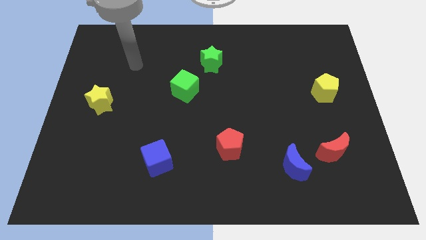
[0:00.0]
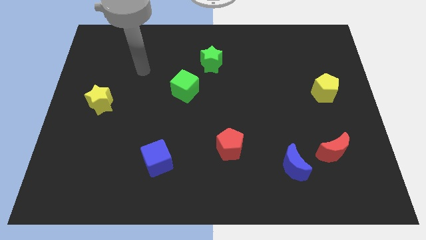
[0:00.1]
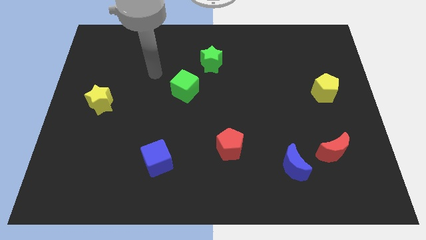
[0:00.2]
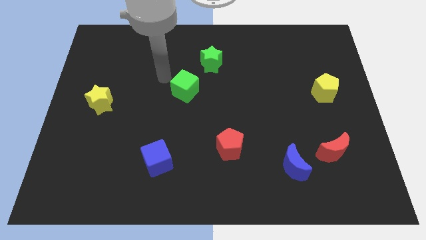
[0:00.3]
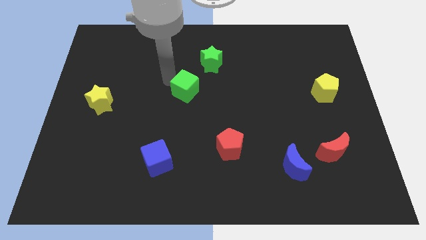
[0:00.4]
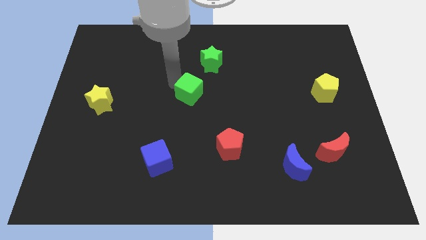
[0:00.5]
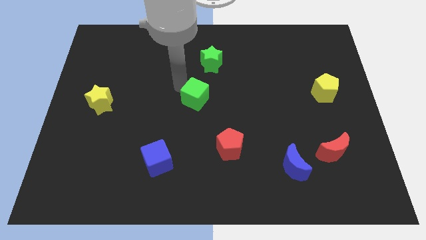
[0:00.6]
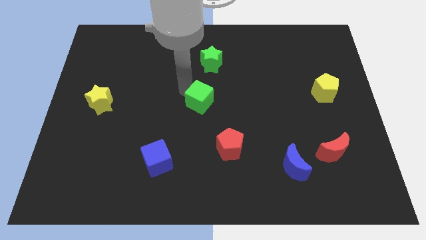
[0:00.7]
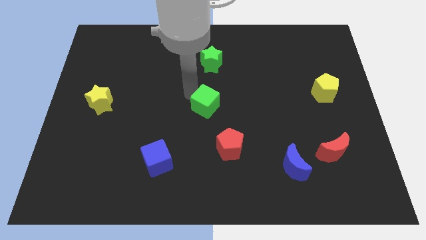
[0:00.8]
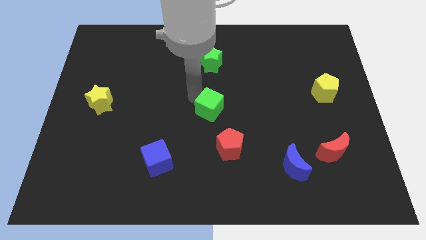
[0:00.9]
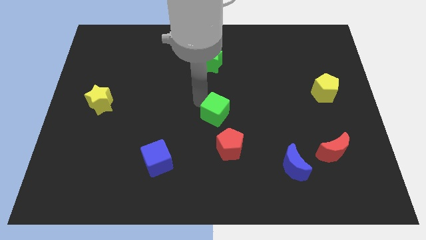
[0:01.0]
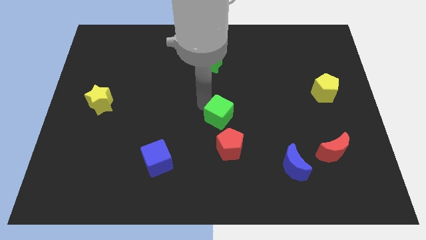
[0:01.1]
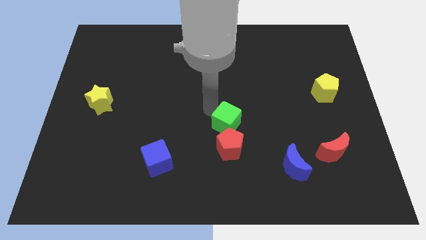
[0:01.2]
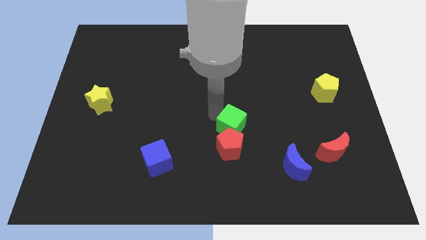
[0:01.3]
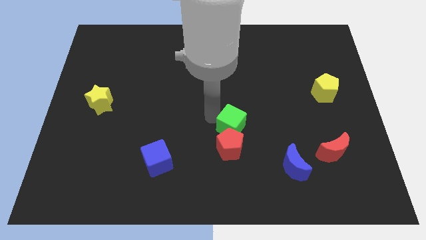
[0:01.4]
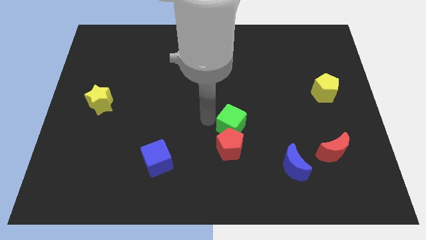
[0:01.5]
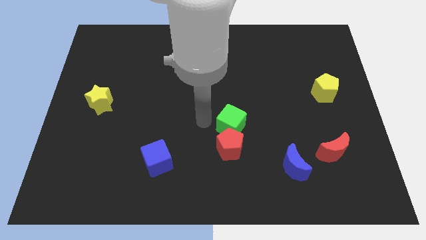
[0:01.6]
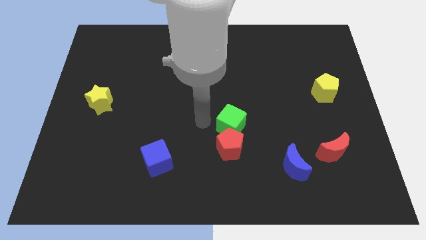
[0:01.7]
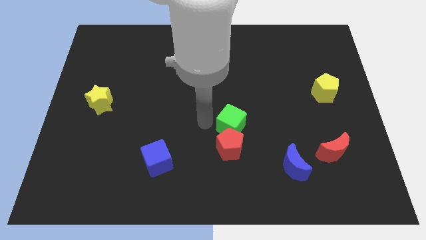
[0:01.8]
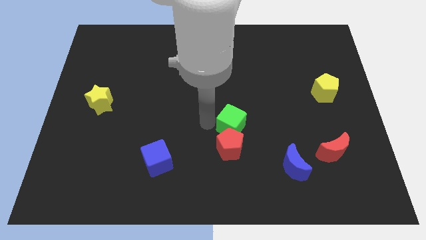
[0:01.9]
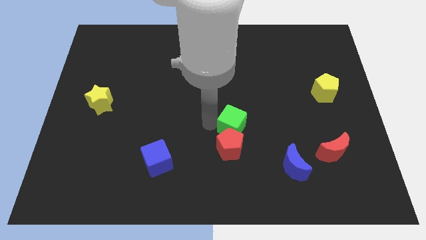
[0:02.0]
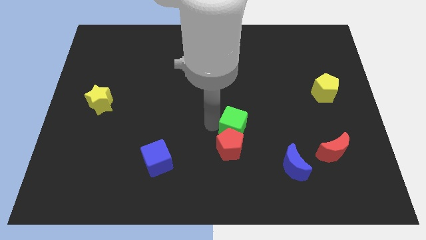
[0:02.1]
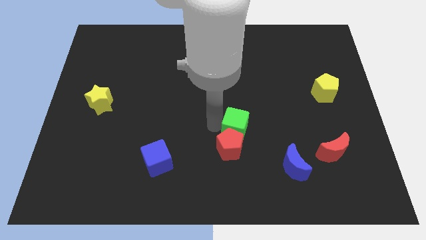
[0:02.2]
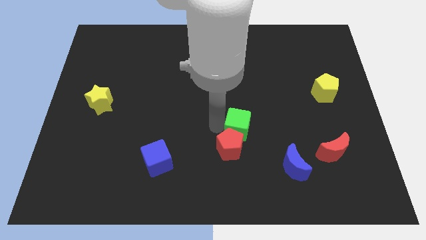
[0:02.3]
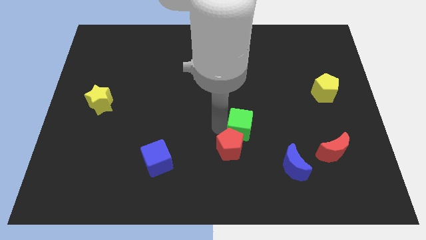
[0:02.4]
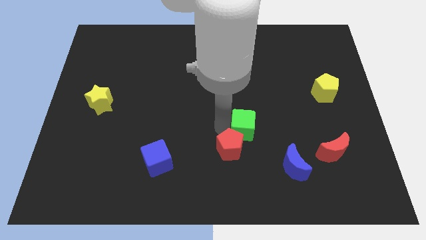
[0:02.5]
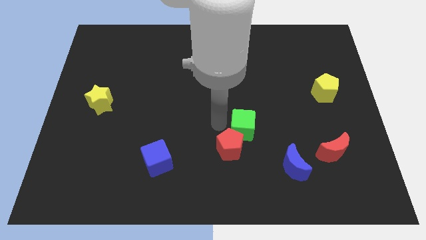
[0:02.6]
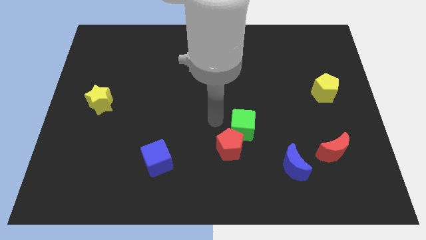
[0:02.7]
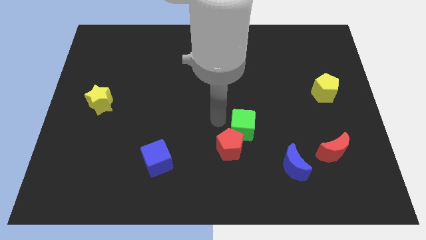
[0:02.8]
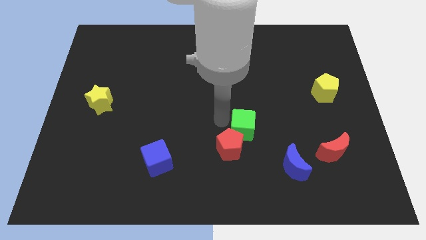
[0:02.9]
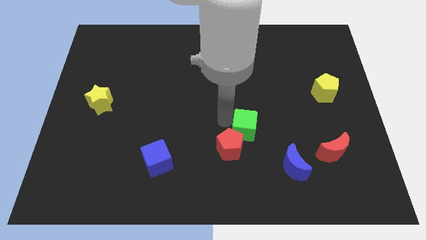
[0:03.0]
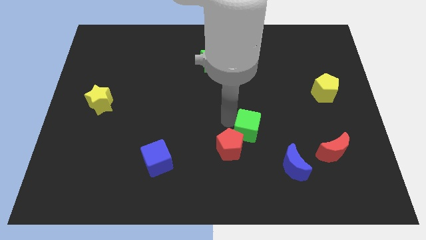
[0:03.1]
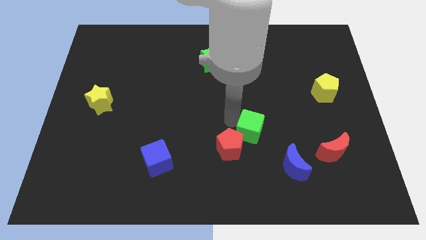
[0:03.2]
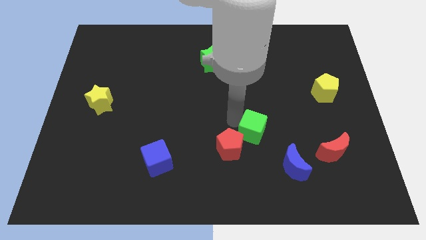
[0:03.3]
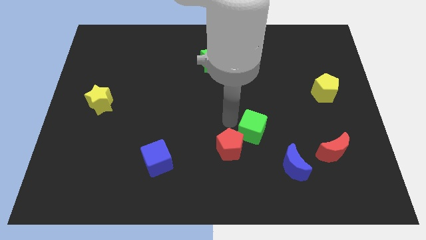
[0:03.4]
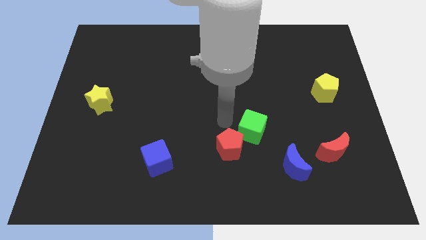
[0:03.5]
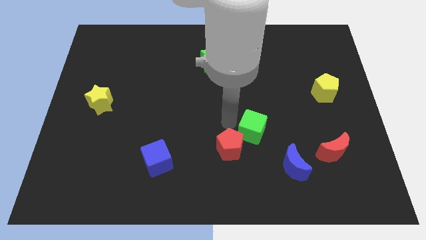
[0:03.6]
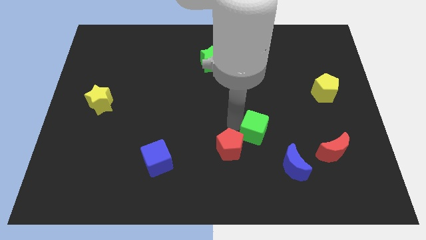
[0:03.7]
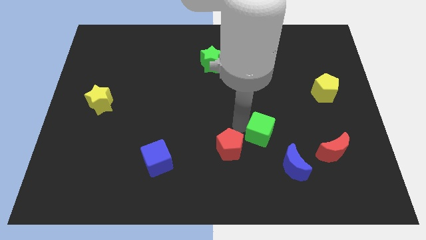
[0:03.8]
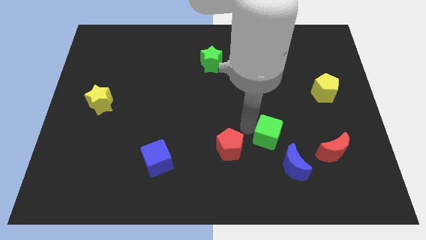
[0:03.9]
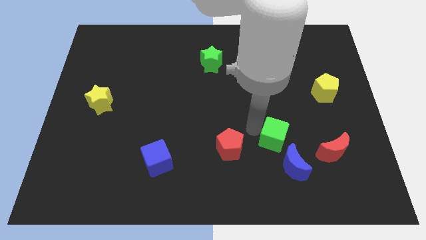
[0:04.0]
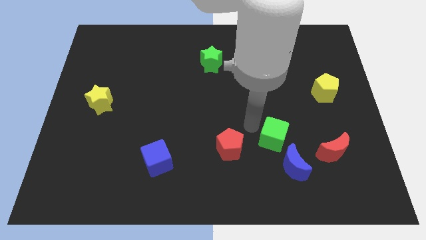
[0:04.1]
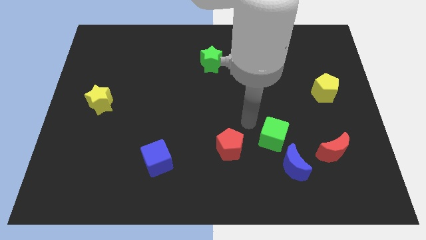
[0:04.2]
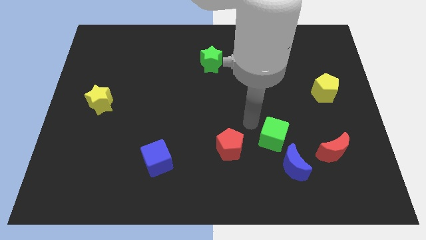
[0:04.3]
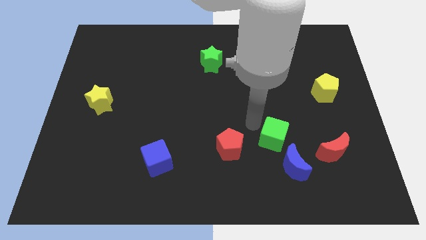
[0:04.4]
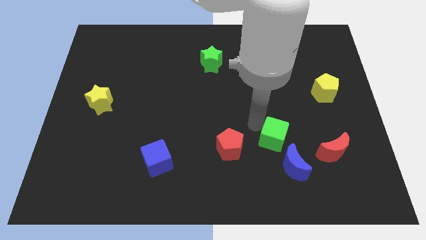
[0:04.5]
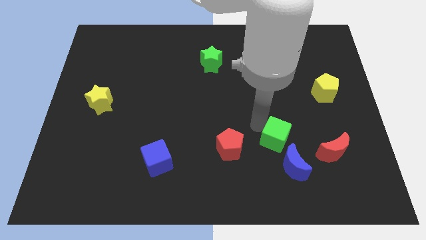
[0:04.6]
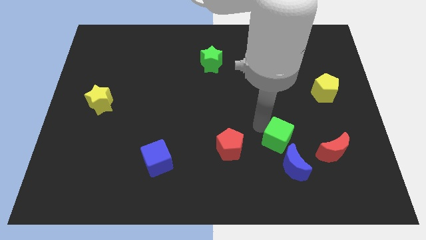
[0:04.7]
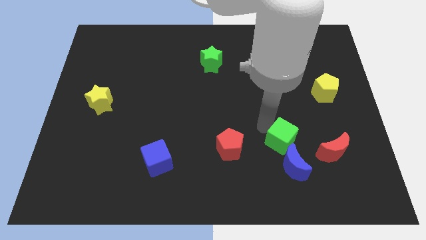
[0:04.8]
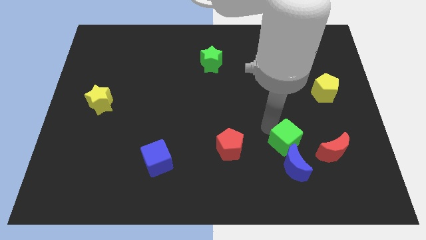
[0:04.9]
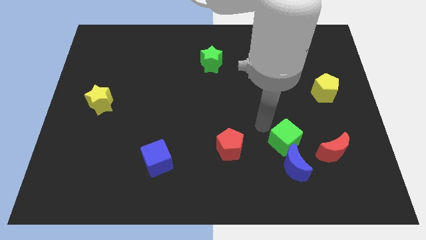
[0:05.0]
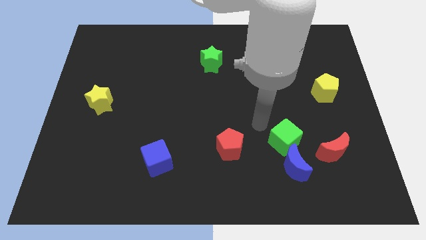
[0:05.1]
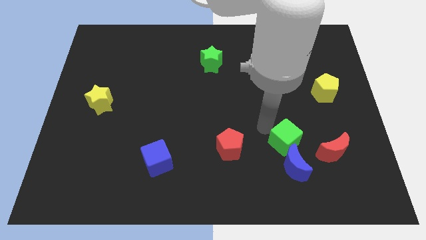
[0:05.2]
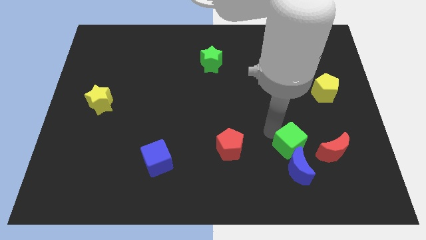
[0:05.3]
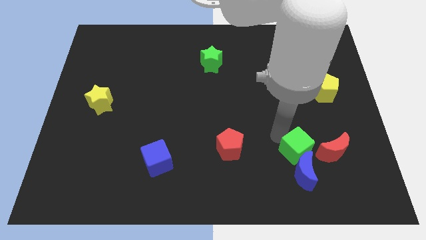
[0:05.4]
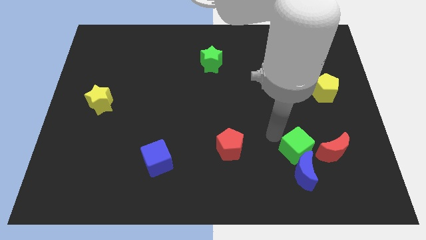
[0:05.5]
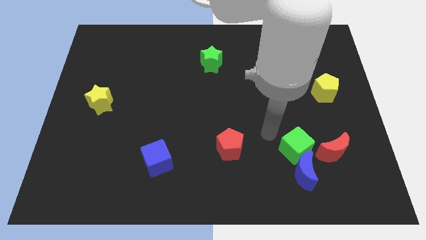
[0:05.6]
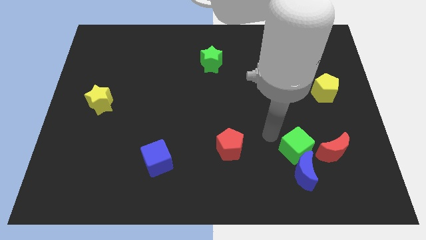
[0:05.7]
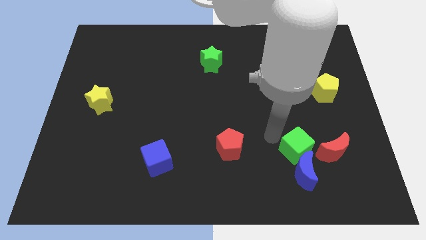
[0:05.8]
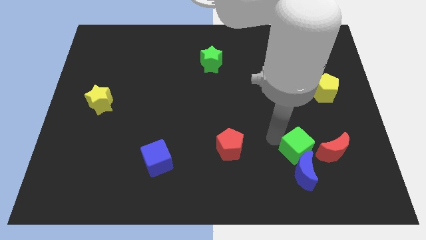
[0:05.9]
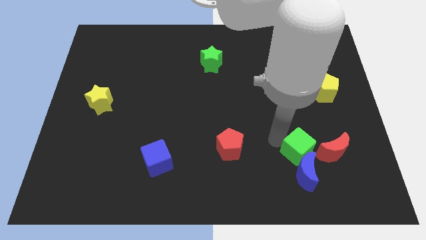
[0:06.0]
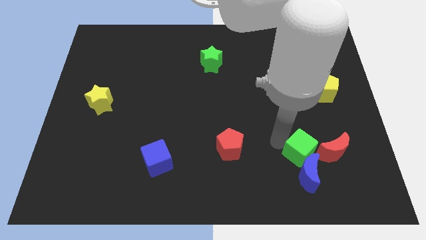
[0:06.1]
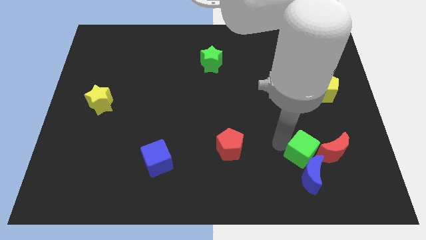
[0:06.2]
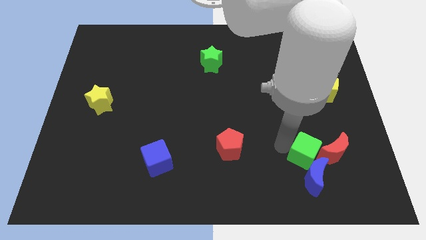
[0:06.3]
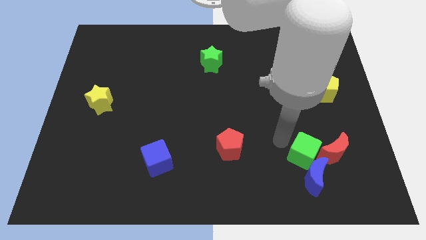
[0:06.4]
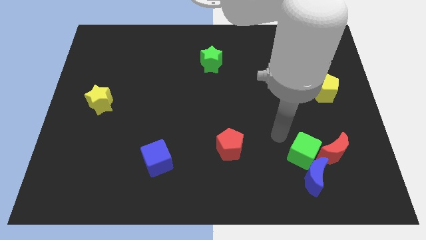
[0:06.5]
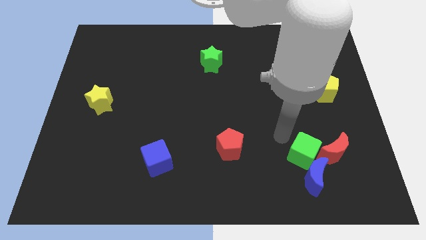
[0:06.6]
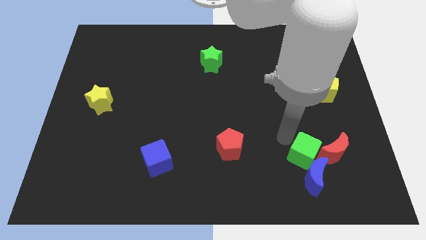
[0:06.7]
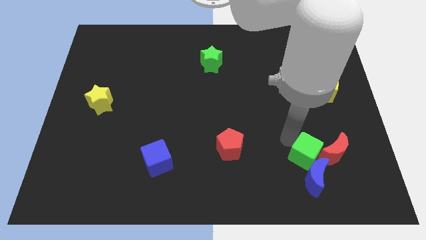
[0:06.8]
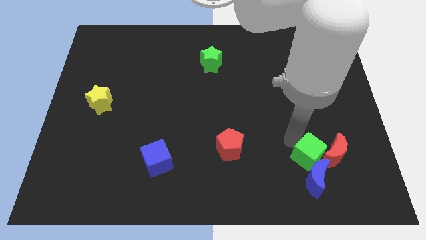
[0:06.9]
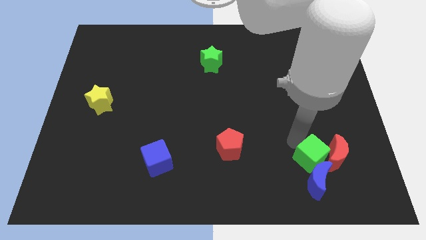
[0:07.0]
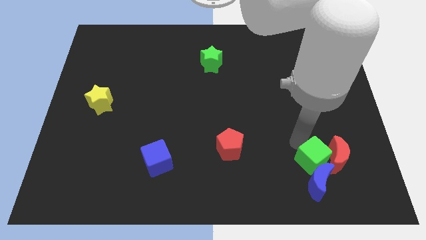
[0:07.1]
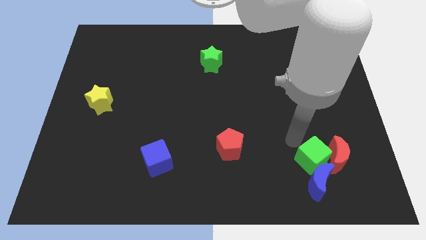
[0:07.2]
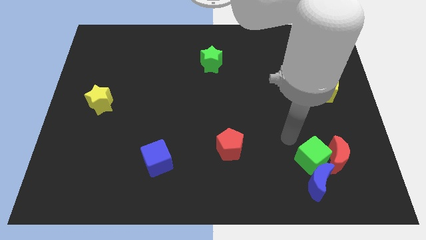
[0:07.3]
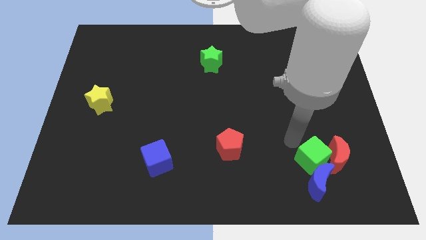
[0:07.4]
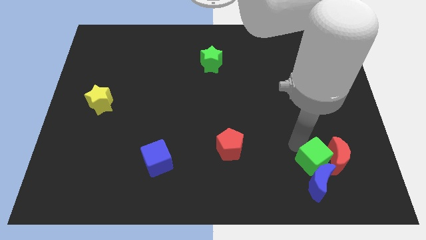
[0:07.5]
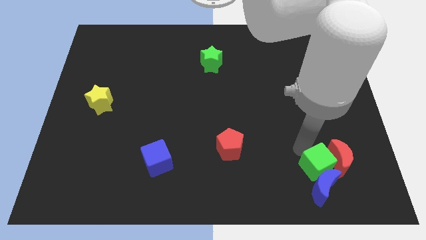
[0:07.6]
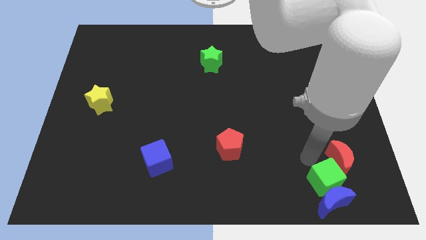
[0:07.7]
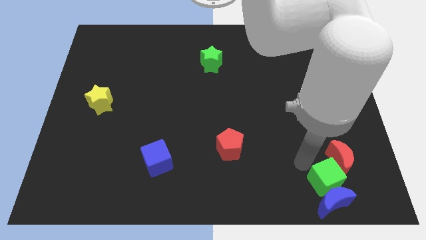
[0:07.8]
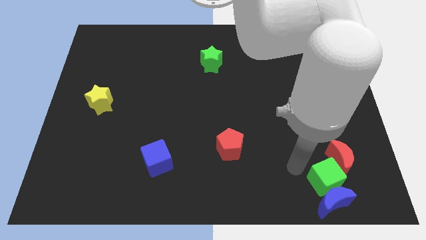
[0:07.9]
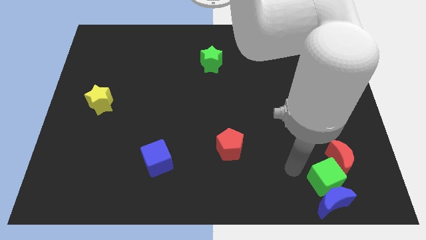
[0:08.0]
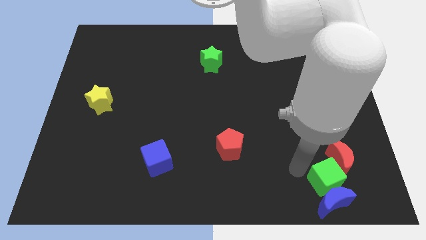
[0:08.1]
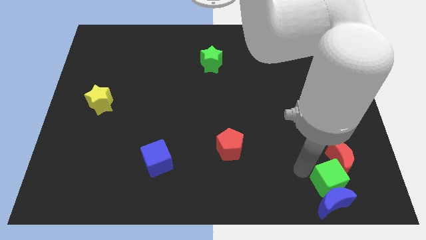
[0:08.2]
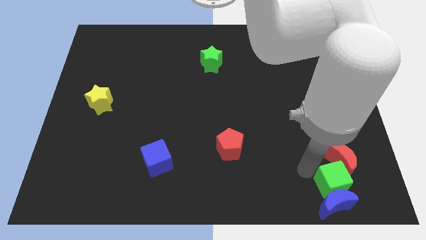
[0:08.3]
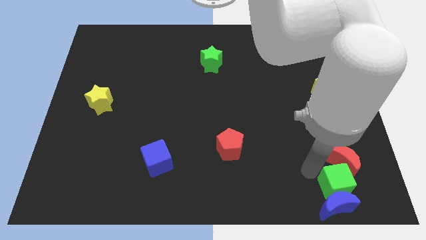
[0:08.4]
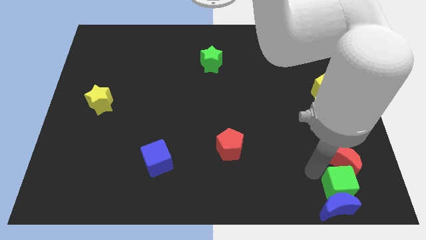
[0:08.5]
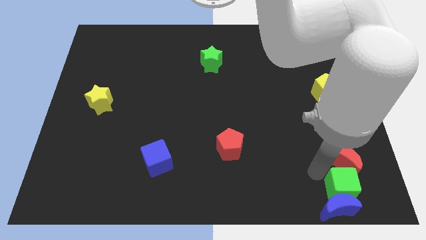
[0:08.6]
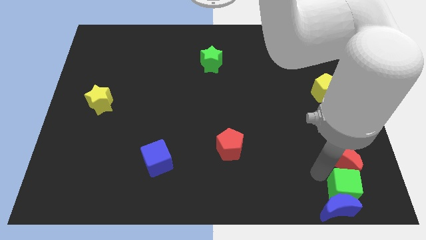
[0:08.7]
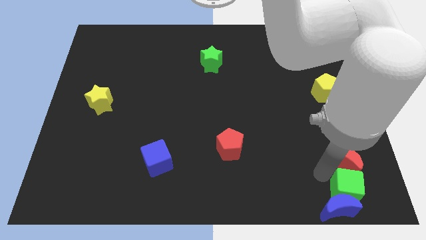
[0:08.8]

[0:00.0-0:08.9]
push the green cube to the bottom right of the board
